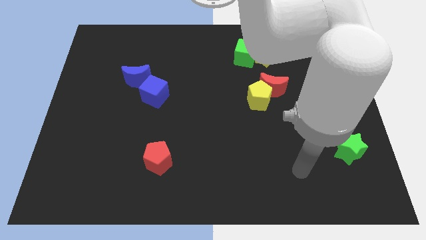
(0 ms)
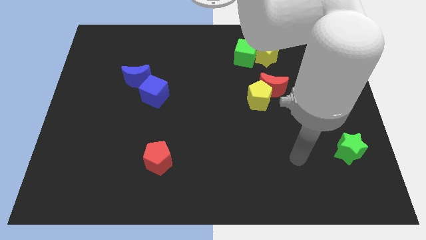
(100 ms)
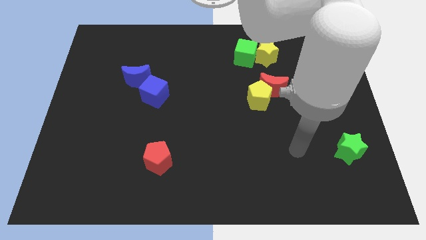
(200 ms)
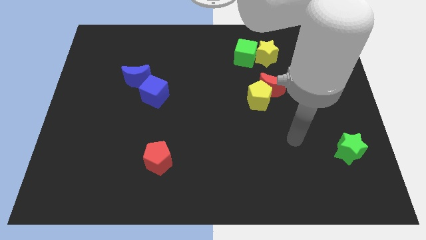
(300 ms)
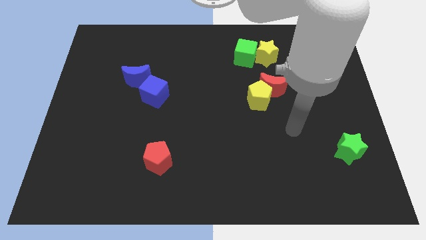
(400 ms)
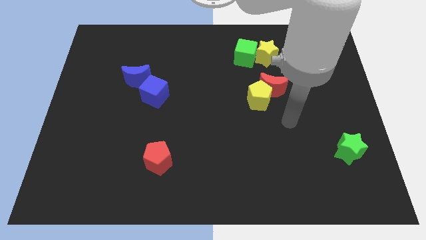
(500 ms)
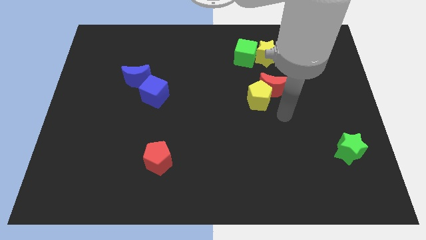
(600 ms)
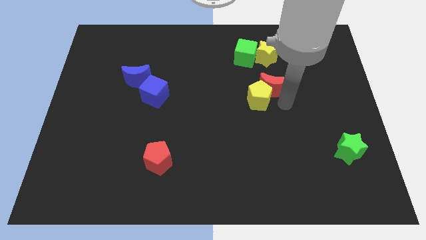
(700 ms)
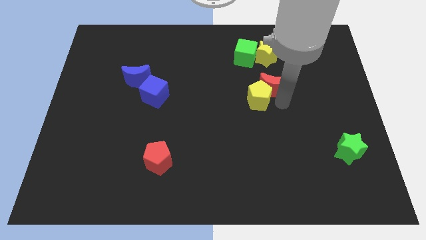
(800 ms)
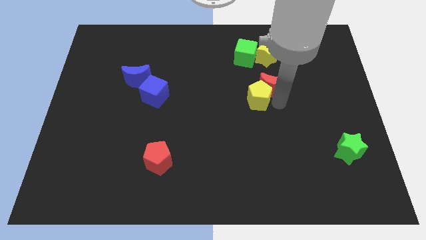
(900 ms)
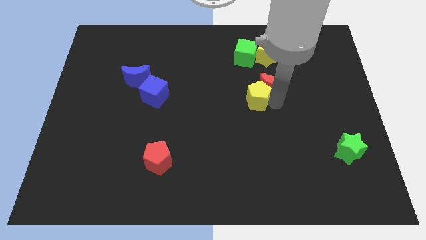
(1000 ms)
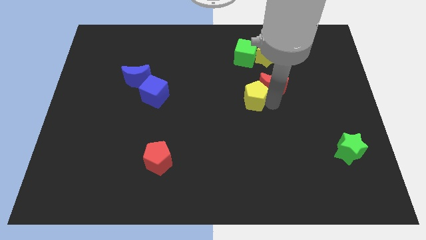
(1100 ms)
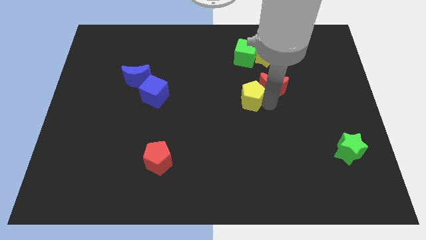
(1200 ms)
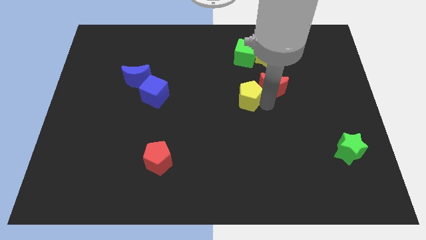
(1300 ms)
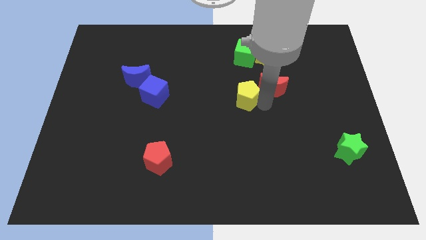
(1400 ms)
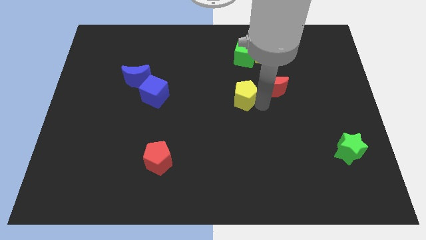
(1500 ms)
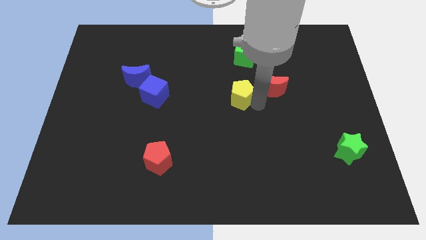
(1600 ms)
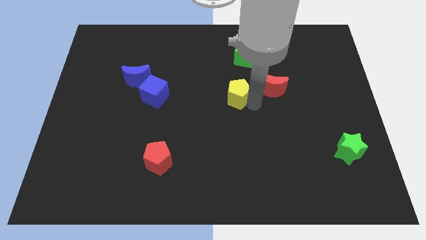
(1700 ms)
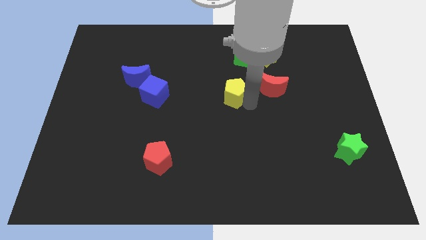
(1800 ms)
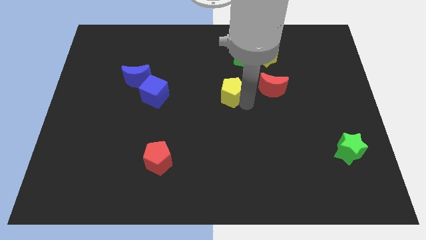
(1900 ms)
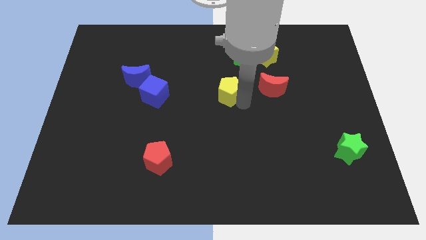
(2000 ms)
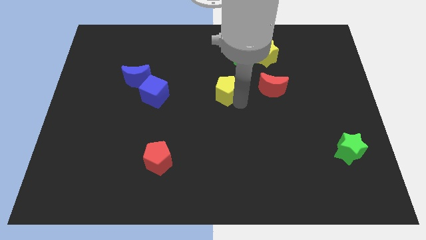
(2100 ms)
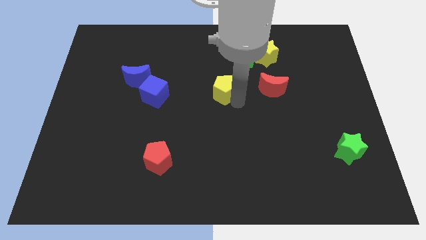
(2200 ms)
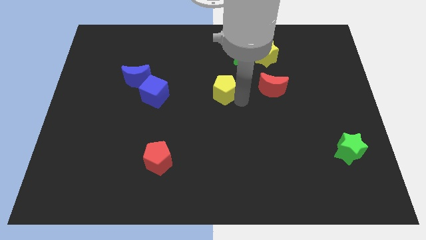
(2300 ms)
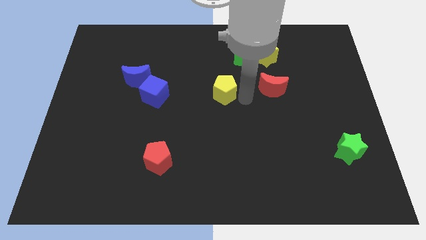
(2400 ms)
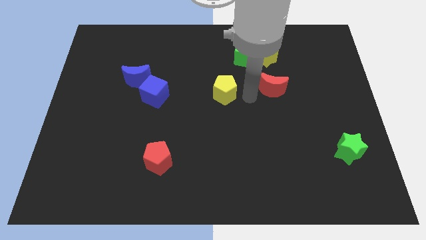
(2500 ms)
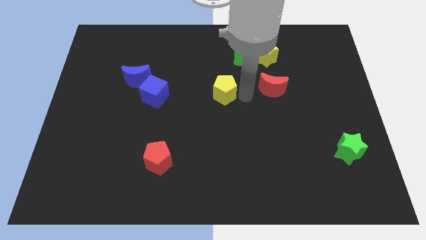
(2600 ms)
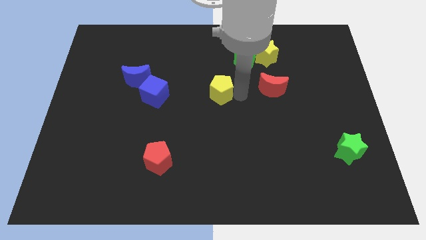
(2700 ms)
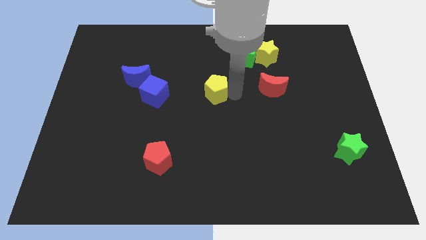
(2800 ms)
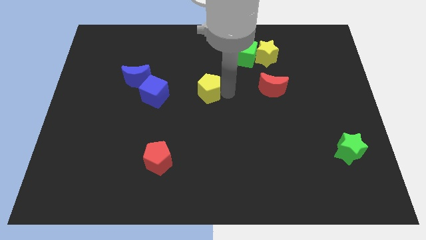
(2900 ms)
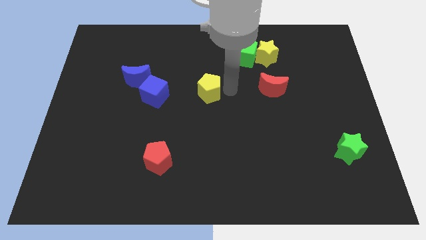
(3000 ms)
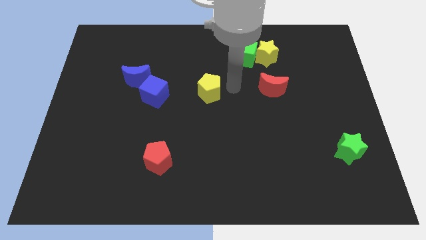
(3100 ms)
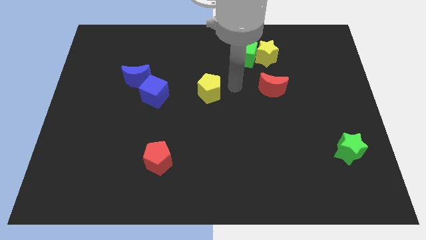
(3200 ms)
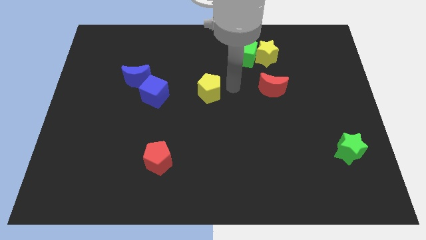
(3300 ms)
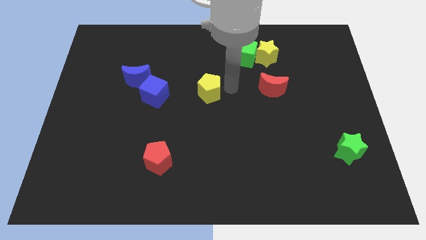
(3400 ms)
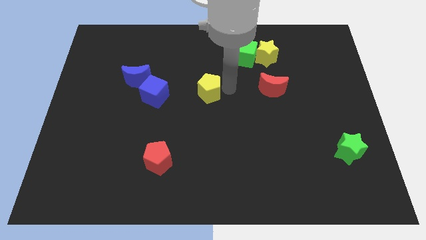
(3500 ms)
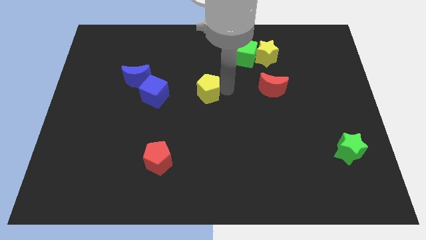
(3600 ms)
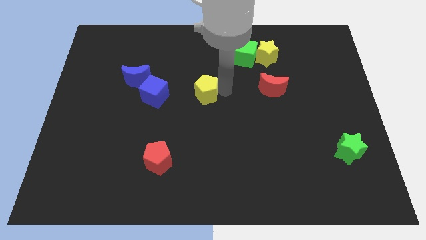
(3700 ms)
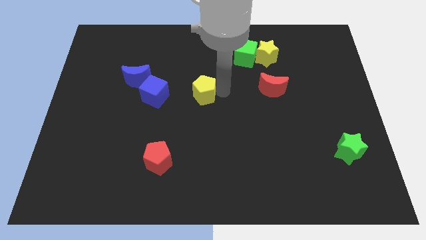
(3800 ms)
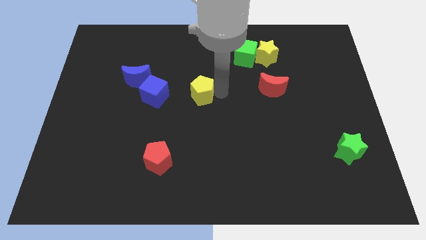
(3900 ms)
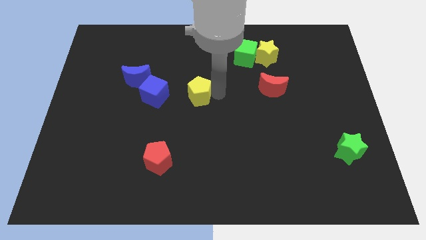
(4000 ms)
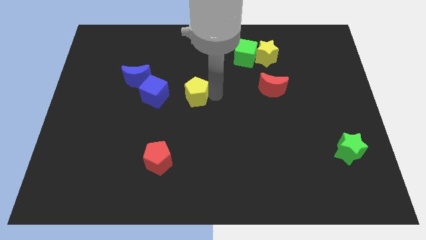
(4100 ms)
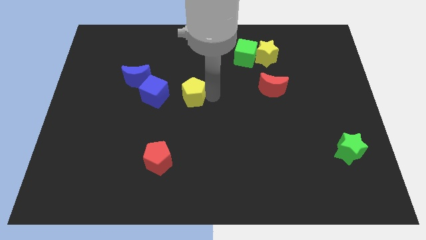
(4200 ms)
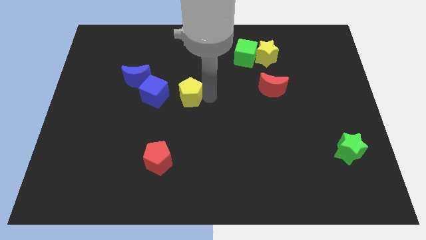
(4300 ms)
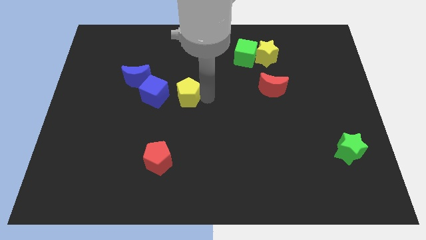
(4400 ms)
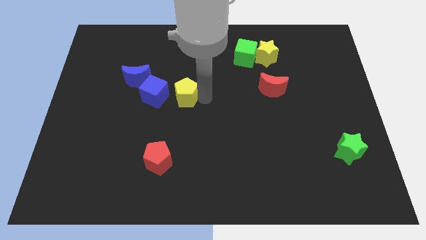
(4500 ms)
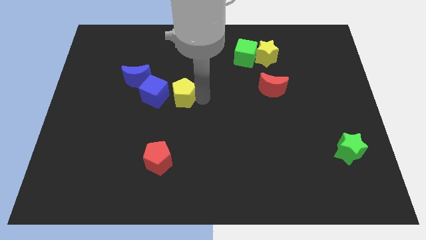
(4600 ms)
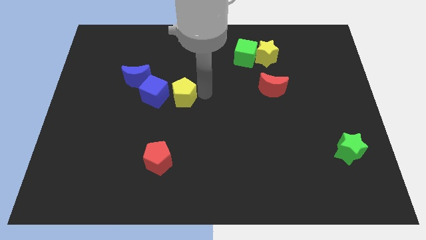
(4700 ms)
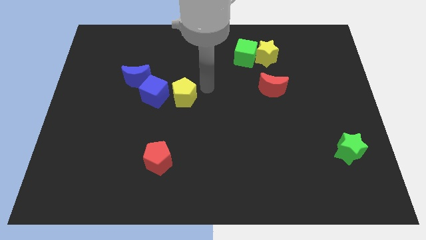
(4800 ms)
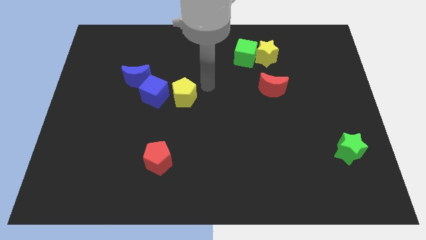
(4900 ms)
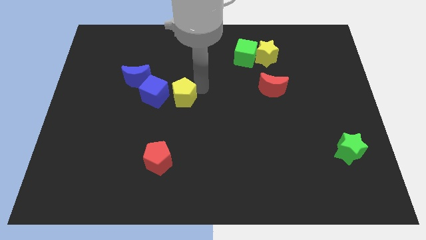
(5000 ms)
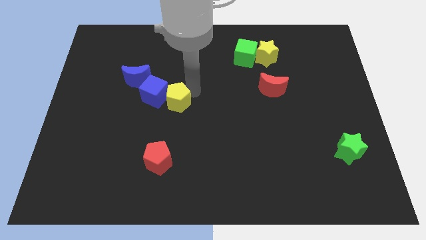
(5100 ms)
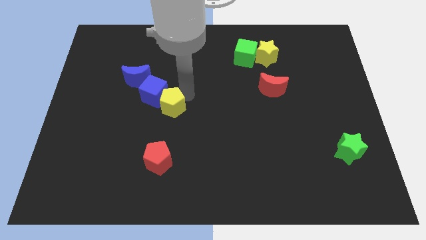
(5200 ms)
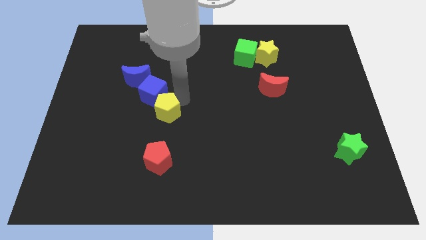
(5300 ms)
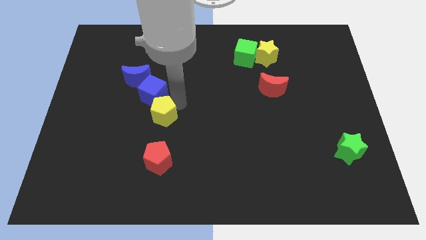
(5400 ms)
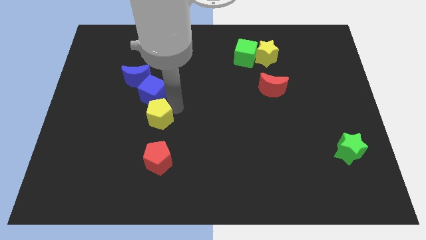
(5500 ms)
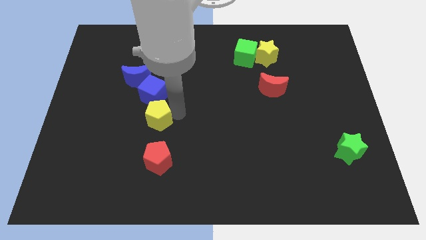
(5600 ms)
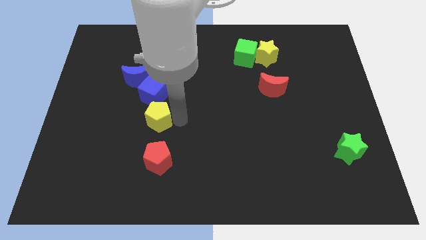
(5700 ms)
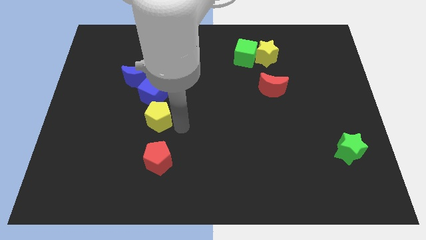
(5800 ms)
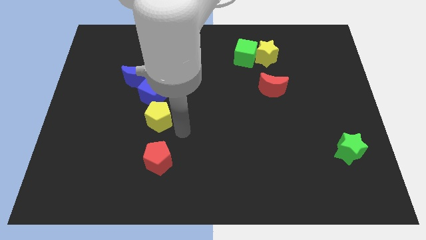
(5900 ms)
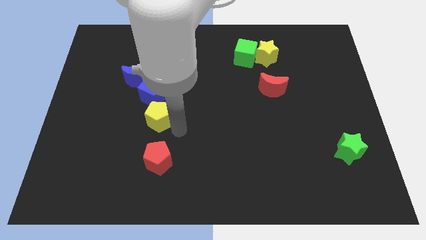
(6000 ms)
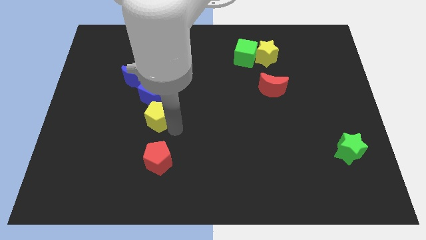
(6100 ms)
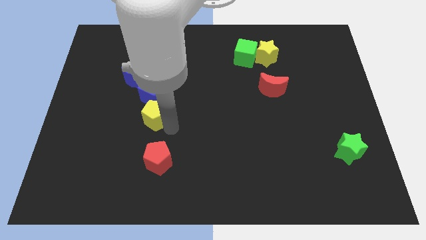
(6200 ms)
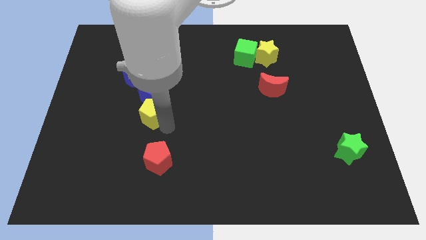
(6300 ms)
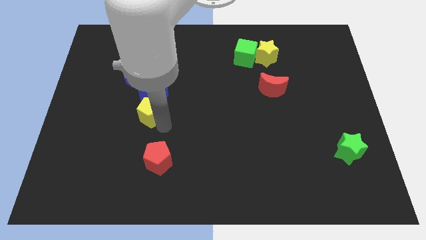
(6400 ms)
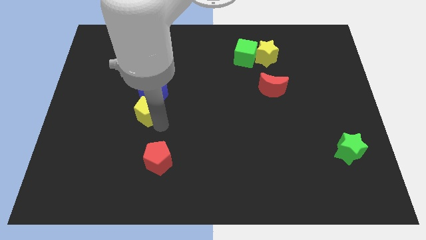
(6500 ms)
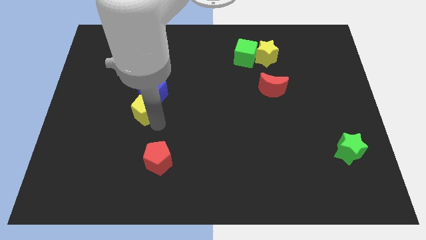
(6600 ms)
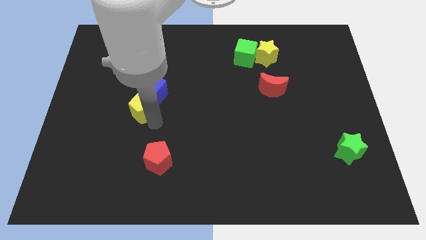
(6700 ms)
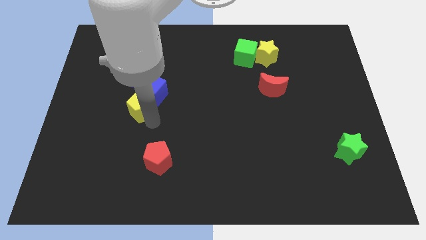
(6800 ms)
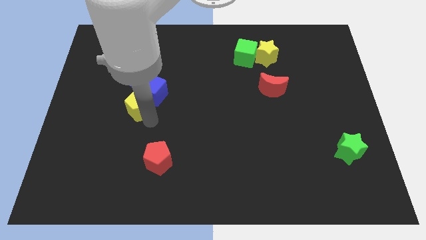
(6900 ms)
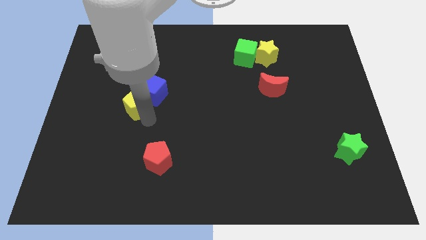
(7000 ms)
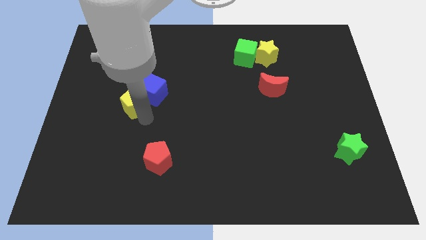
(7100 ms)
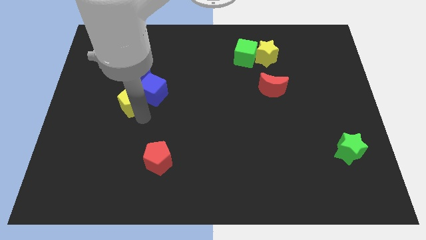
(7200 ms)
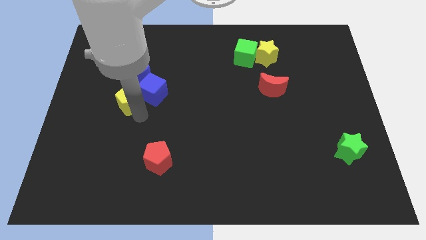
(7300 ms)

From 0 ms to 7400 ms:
push the yellow pentagon diagonally down and to the left of the blue moon

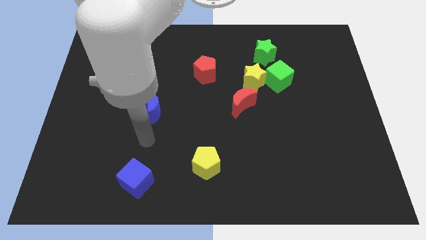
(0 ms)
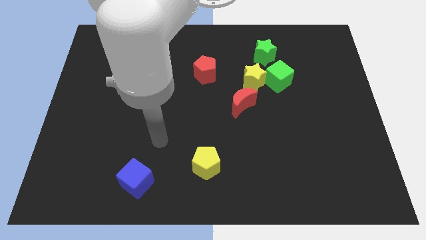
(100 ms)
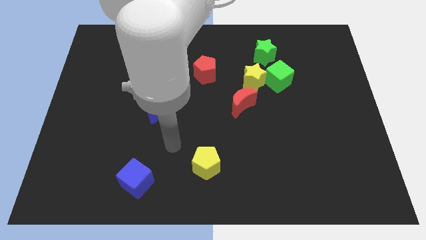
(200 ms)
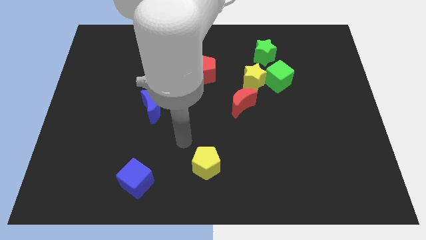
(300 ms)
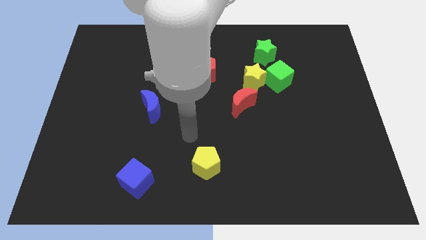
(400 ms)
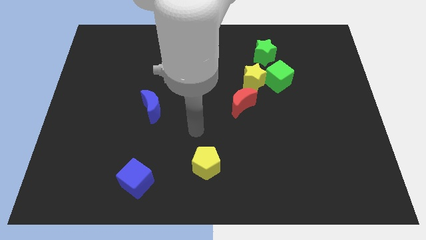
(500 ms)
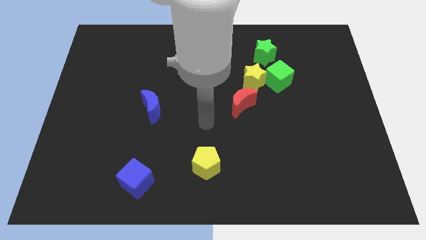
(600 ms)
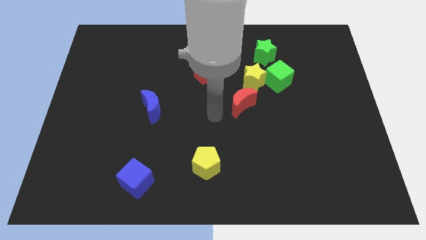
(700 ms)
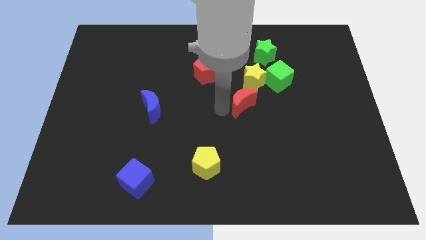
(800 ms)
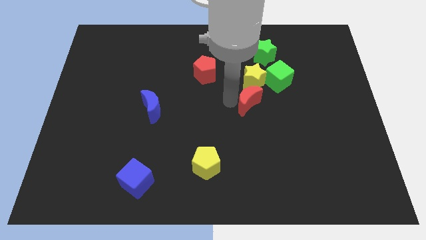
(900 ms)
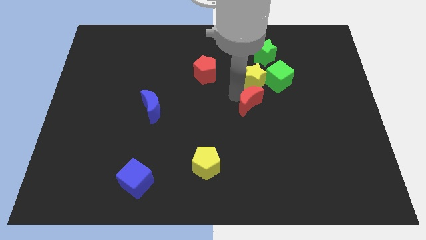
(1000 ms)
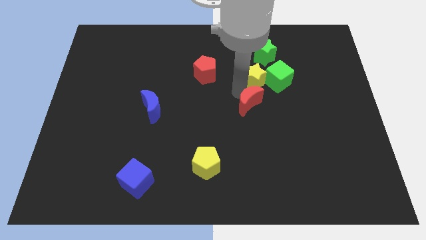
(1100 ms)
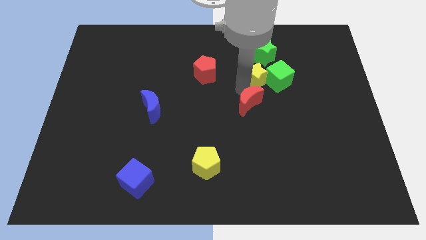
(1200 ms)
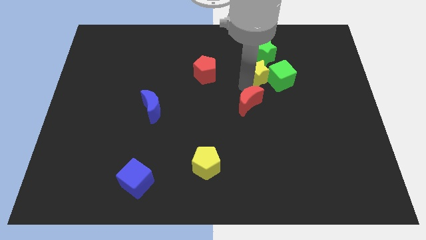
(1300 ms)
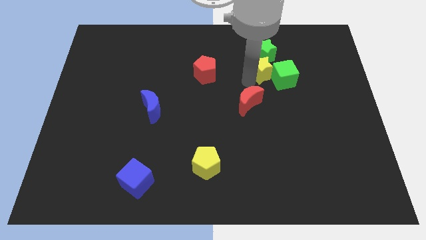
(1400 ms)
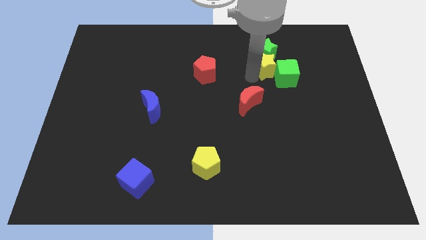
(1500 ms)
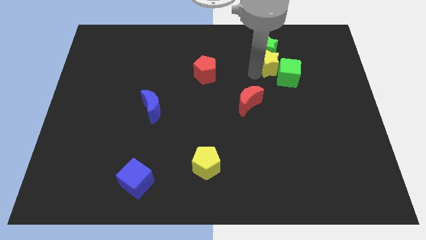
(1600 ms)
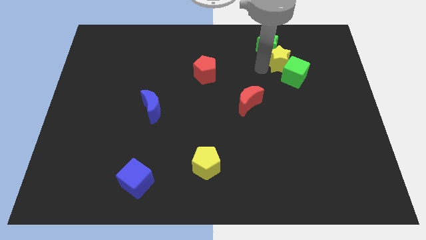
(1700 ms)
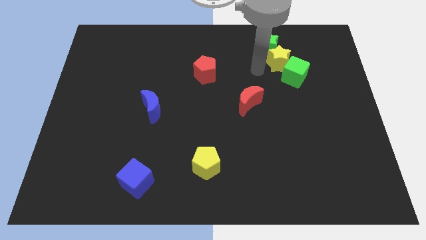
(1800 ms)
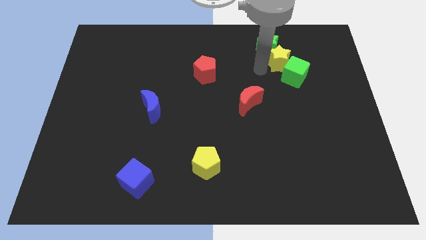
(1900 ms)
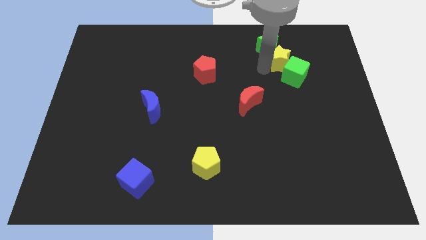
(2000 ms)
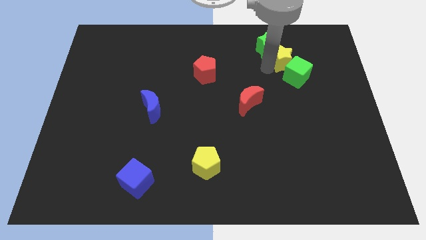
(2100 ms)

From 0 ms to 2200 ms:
put the yellow star just right of the green star
